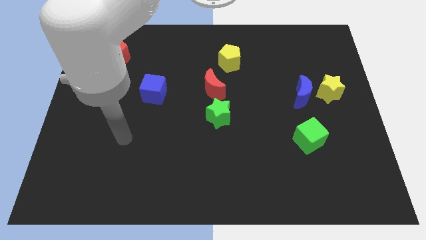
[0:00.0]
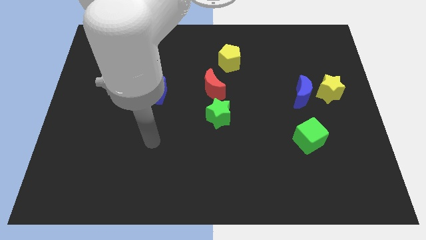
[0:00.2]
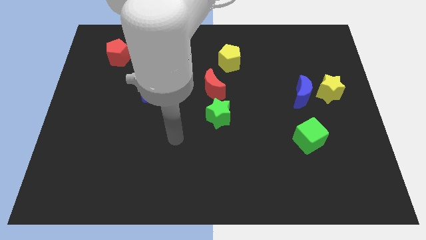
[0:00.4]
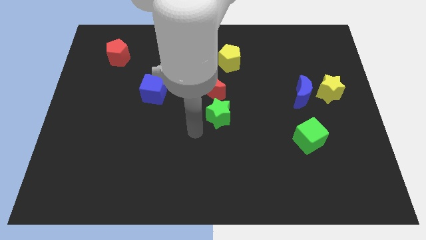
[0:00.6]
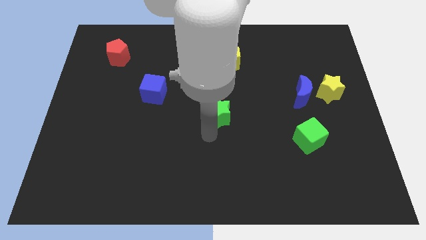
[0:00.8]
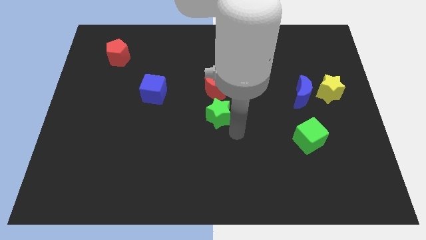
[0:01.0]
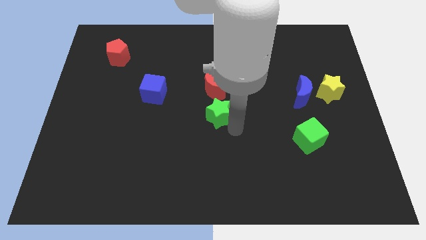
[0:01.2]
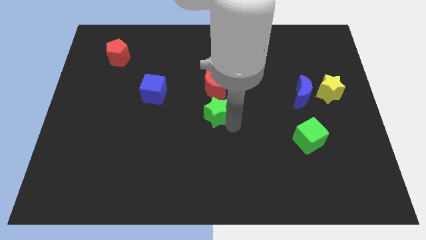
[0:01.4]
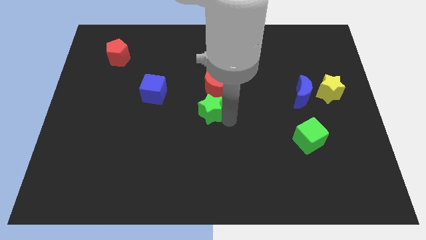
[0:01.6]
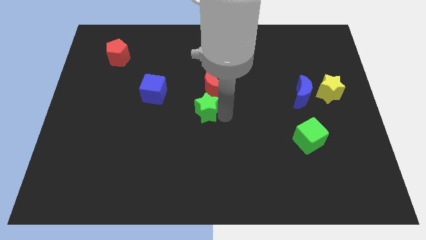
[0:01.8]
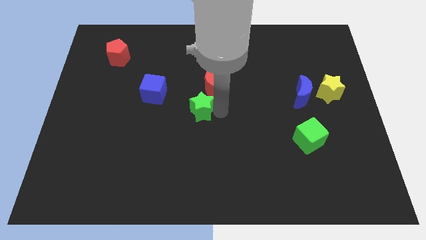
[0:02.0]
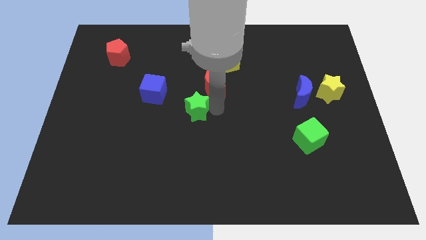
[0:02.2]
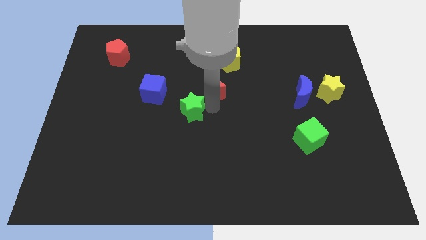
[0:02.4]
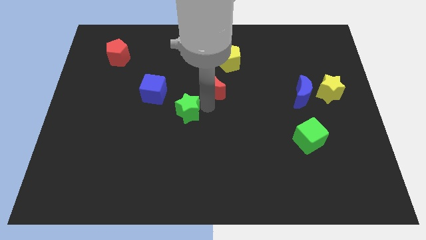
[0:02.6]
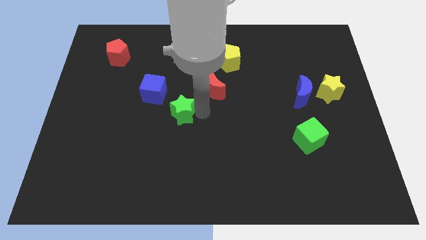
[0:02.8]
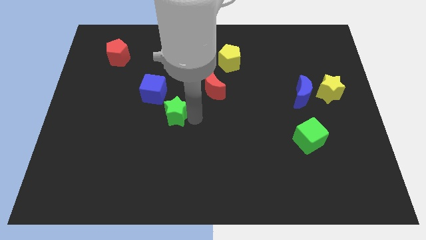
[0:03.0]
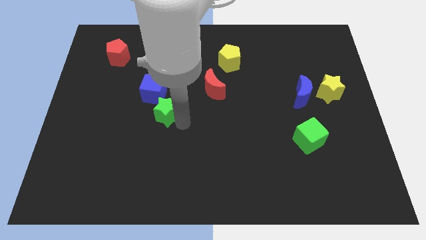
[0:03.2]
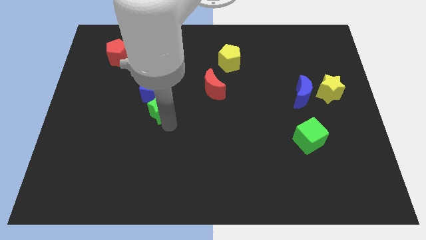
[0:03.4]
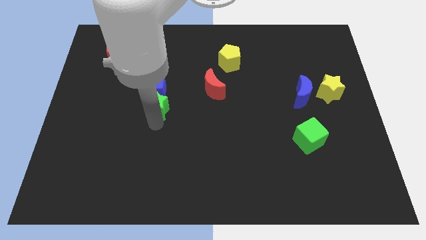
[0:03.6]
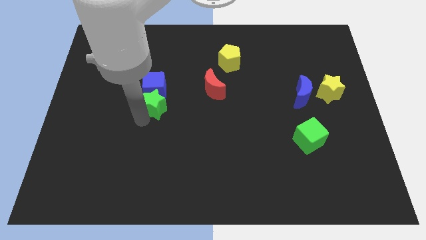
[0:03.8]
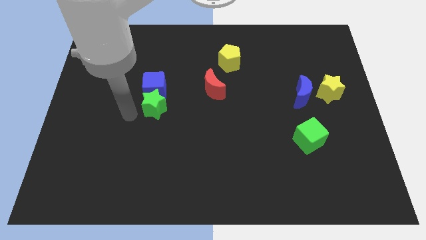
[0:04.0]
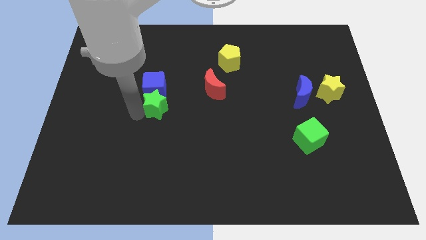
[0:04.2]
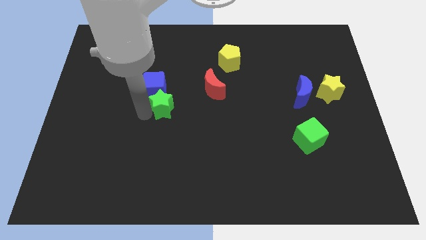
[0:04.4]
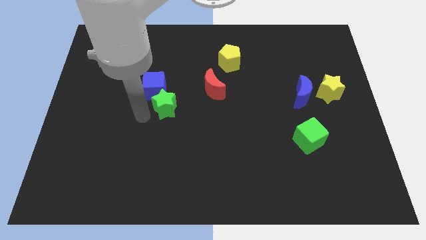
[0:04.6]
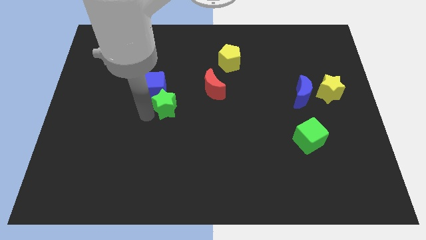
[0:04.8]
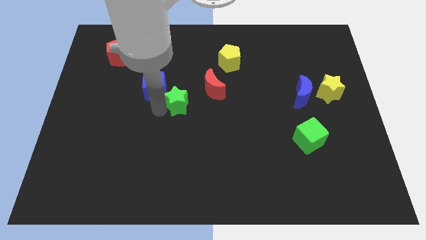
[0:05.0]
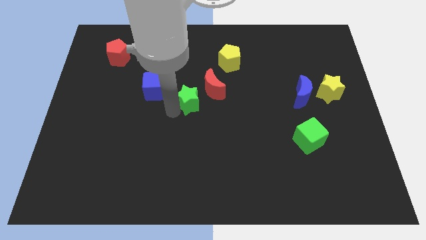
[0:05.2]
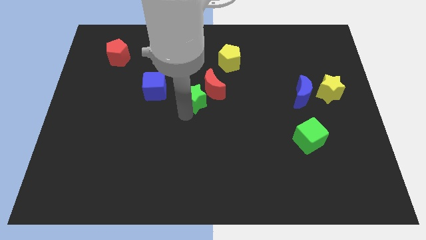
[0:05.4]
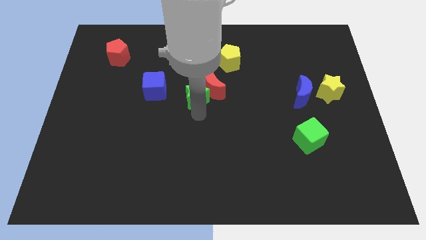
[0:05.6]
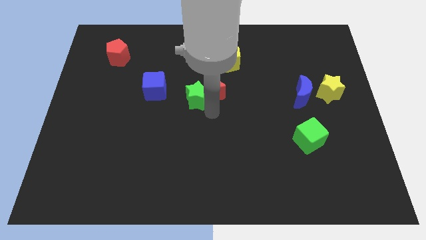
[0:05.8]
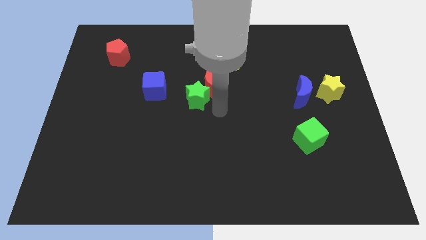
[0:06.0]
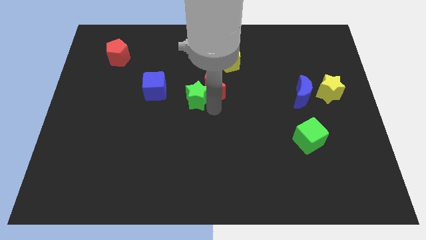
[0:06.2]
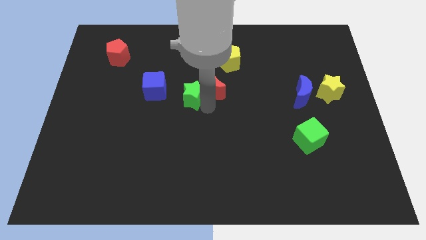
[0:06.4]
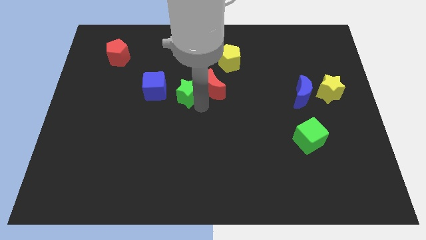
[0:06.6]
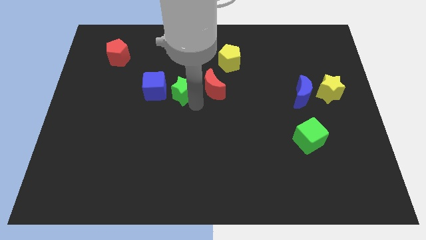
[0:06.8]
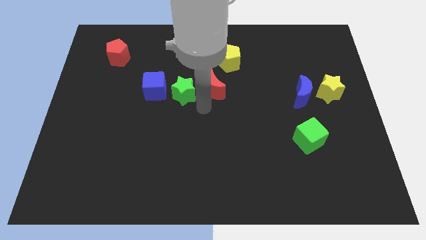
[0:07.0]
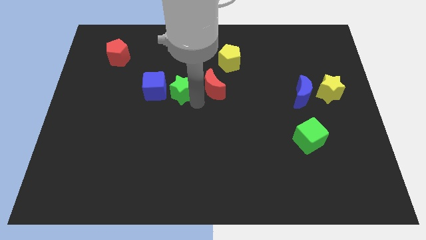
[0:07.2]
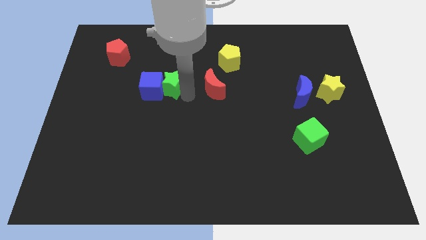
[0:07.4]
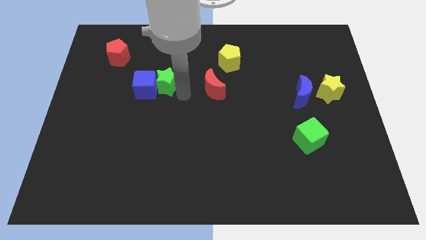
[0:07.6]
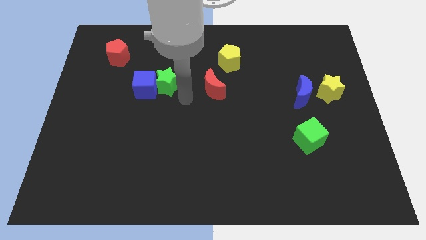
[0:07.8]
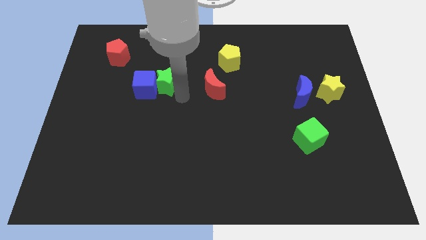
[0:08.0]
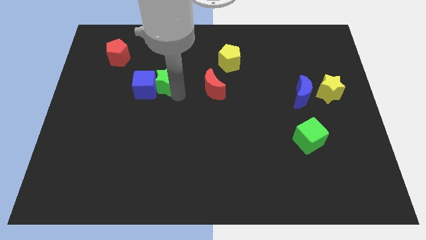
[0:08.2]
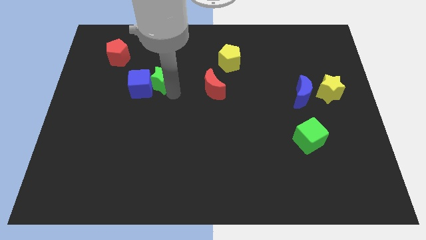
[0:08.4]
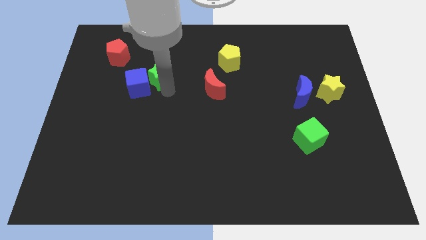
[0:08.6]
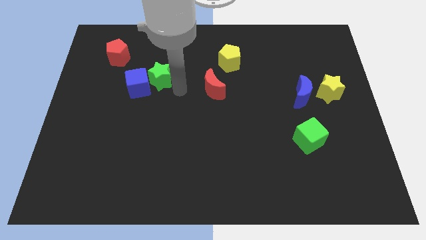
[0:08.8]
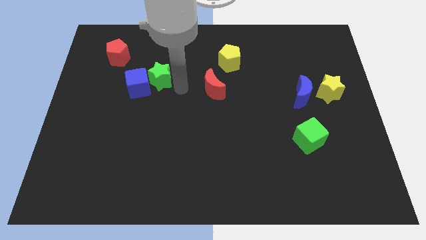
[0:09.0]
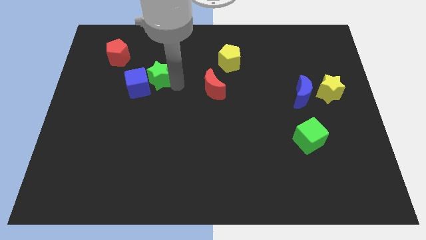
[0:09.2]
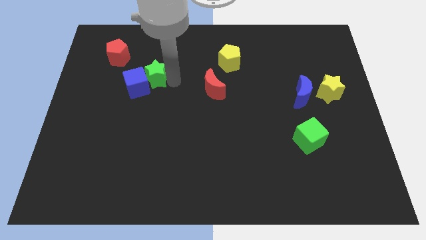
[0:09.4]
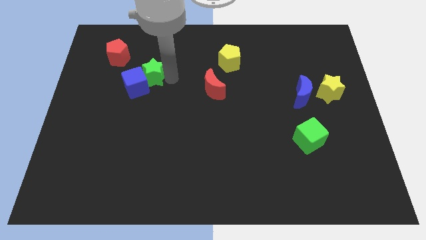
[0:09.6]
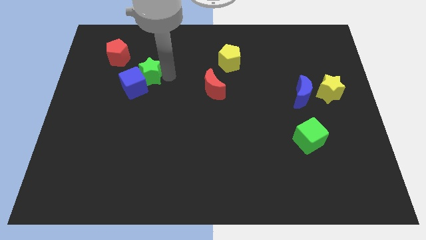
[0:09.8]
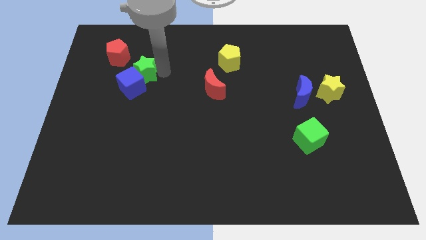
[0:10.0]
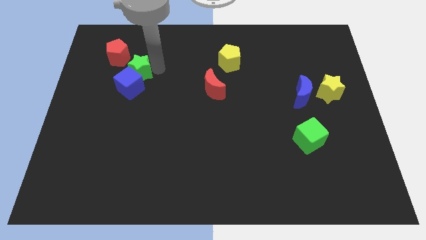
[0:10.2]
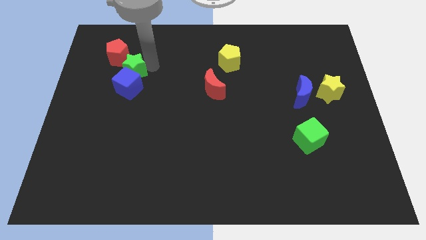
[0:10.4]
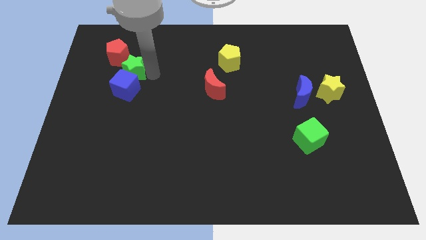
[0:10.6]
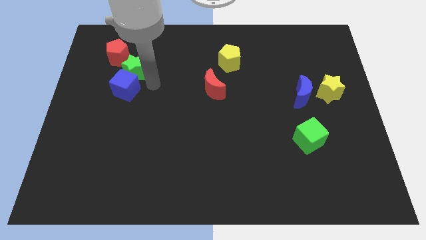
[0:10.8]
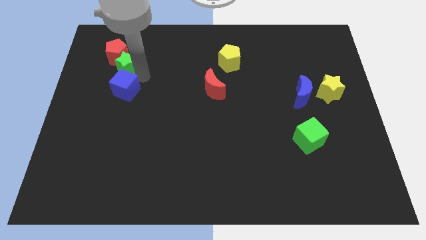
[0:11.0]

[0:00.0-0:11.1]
push the green star towards the red pentagon

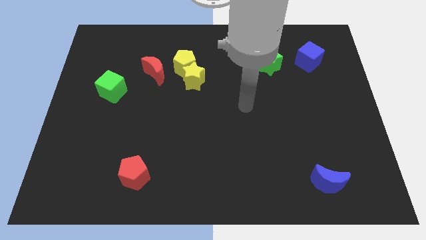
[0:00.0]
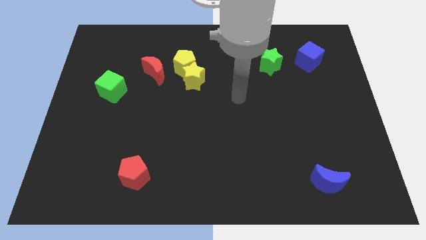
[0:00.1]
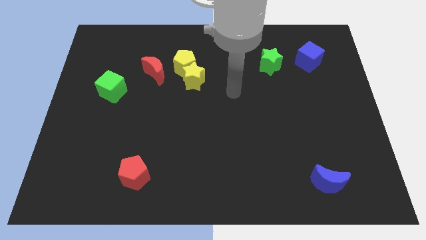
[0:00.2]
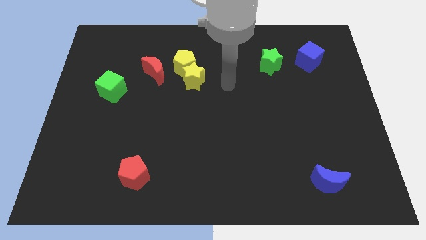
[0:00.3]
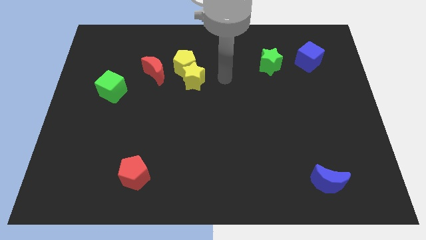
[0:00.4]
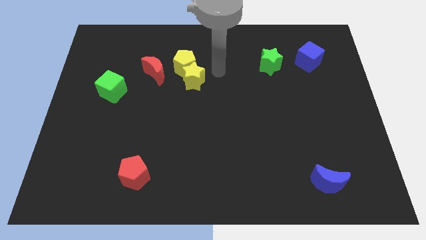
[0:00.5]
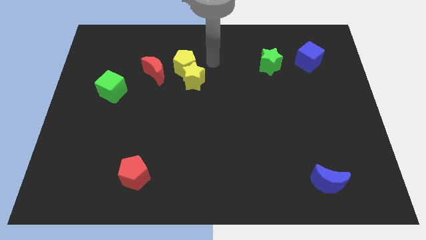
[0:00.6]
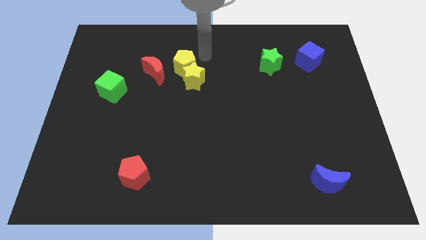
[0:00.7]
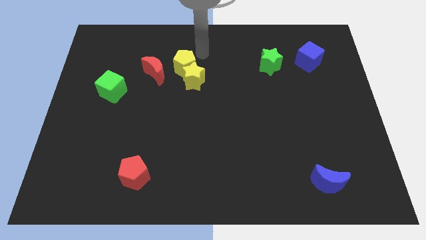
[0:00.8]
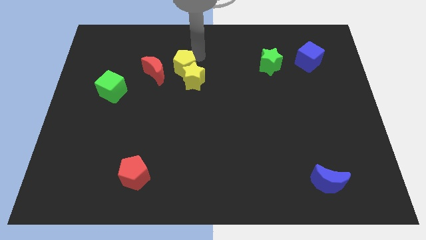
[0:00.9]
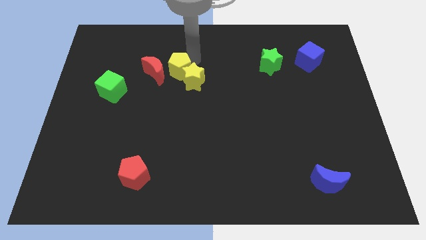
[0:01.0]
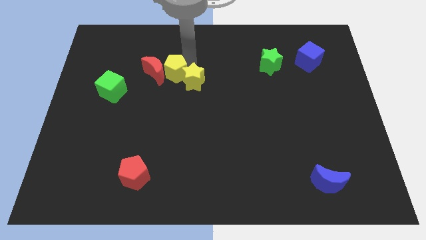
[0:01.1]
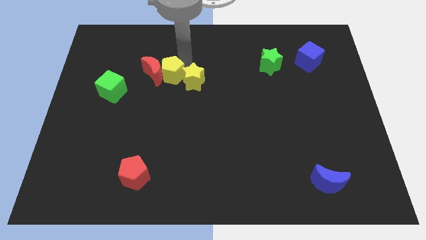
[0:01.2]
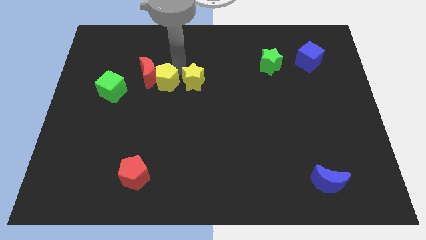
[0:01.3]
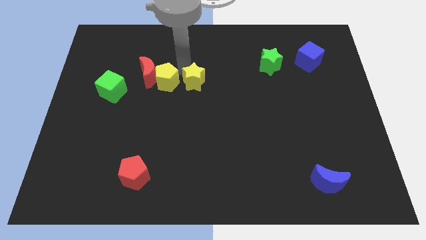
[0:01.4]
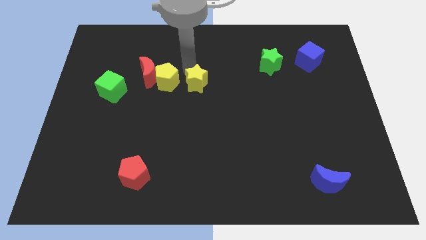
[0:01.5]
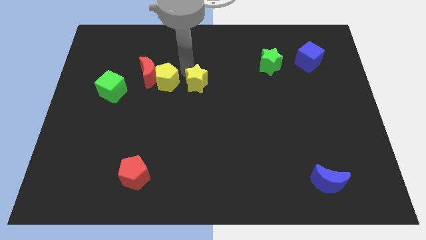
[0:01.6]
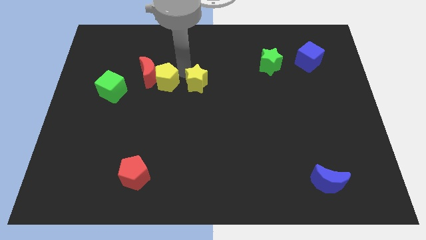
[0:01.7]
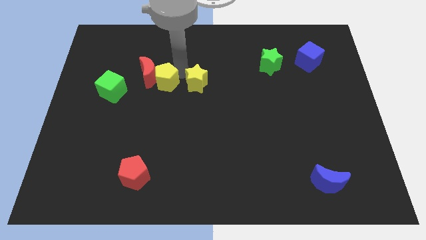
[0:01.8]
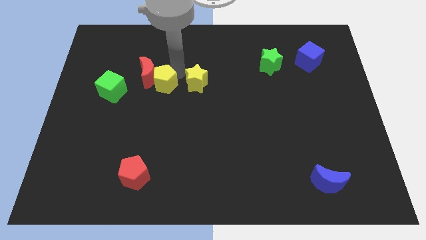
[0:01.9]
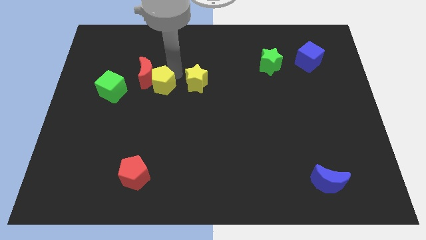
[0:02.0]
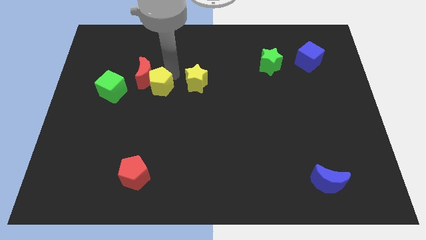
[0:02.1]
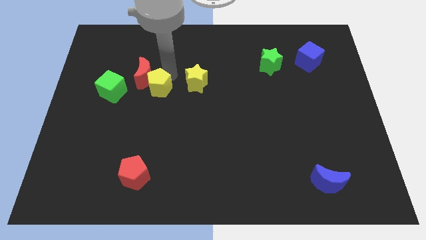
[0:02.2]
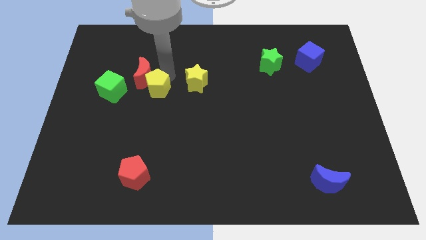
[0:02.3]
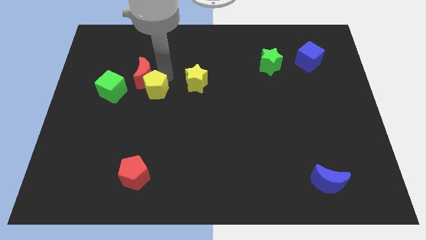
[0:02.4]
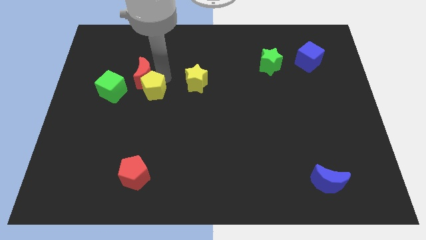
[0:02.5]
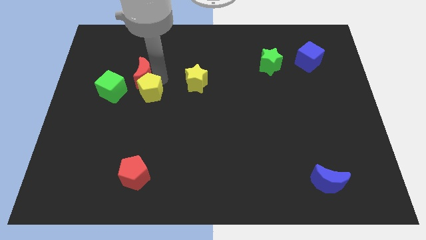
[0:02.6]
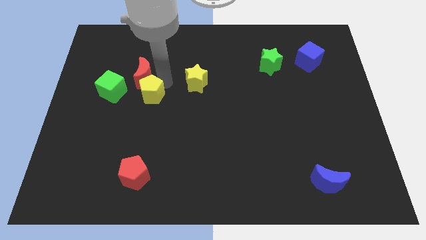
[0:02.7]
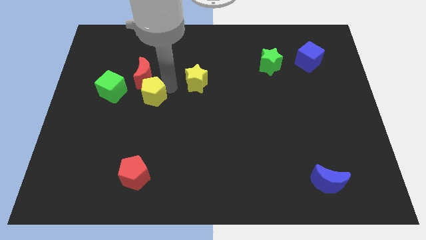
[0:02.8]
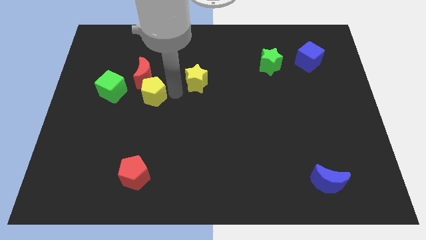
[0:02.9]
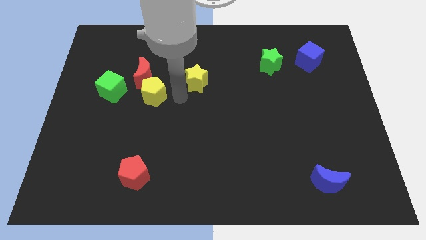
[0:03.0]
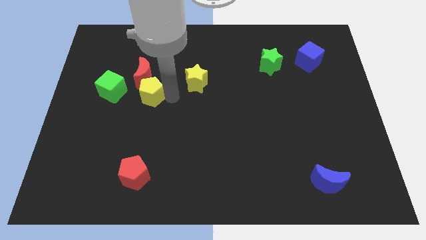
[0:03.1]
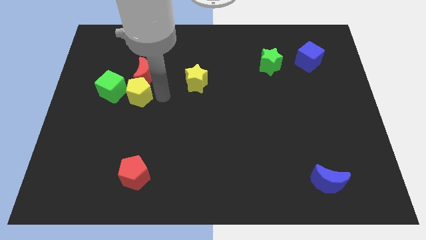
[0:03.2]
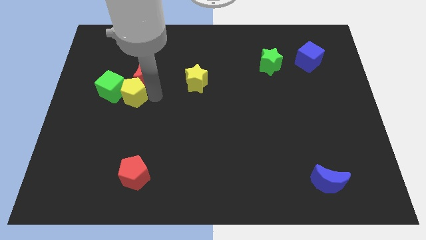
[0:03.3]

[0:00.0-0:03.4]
slide the yellow pentagon towards the green cube
